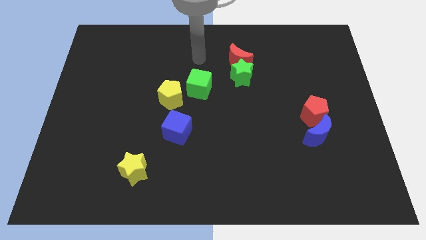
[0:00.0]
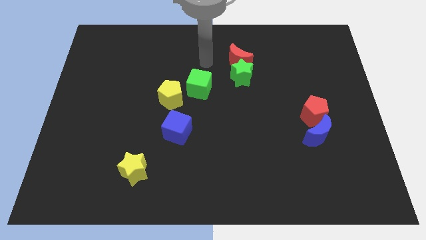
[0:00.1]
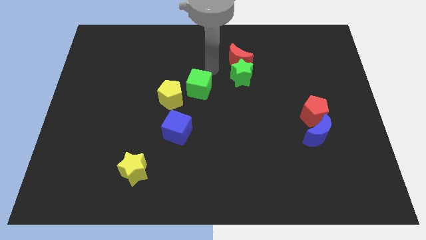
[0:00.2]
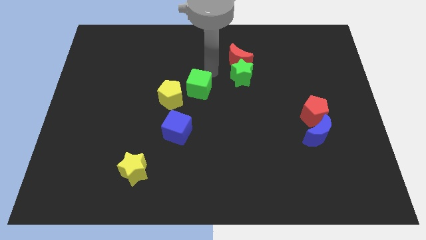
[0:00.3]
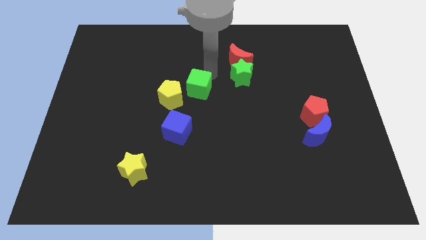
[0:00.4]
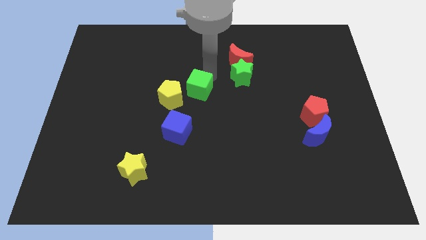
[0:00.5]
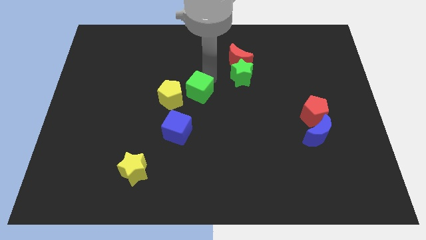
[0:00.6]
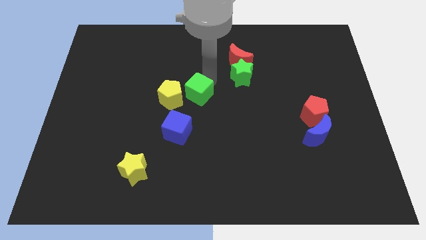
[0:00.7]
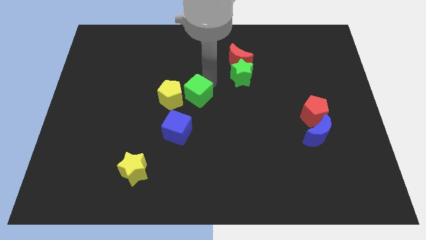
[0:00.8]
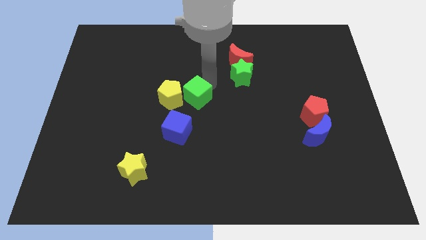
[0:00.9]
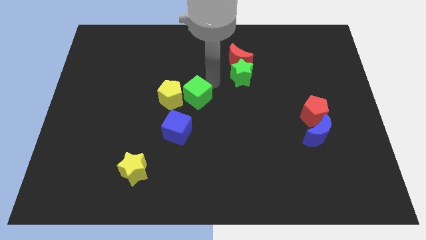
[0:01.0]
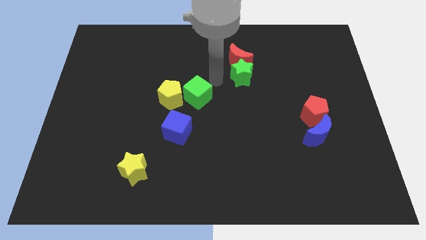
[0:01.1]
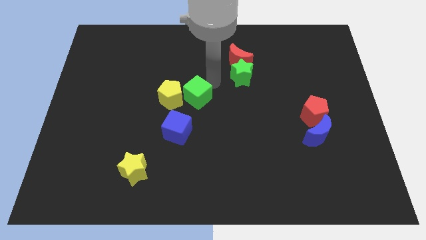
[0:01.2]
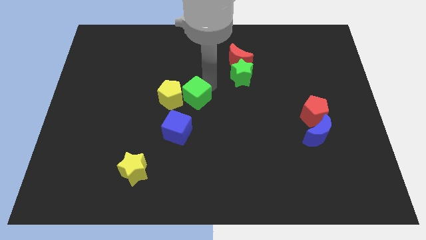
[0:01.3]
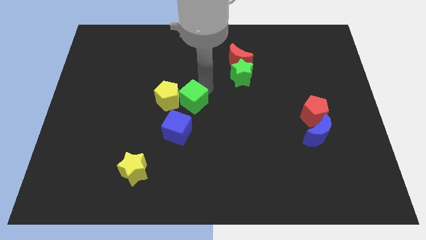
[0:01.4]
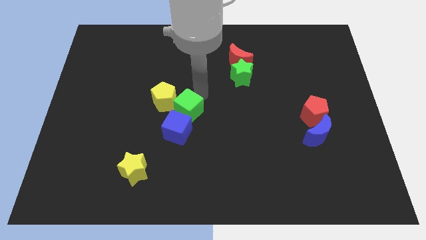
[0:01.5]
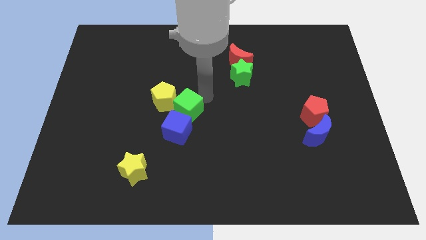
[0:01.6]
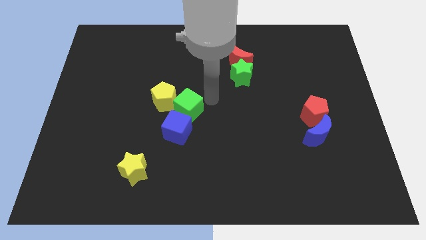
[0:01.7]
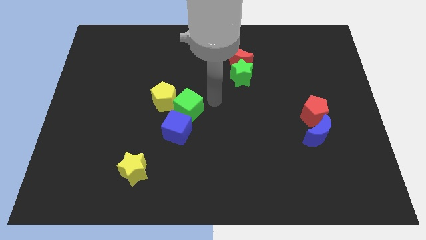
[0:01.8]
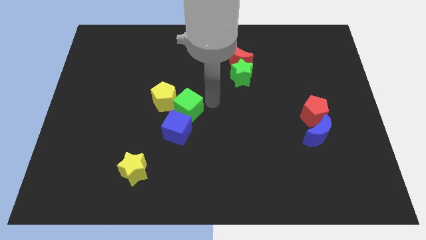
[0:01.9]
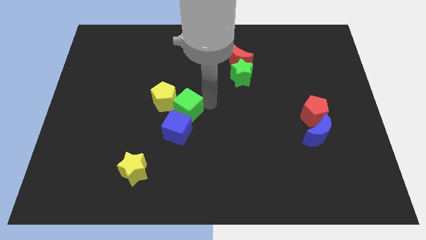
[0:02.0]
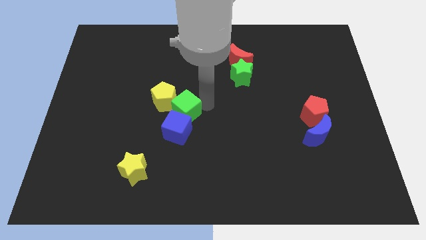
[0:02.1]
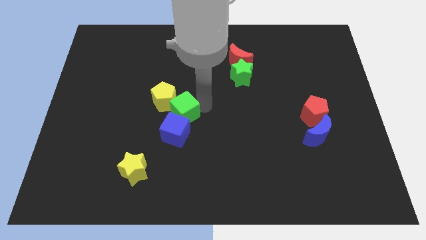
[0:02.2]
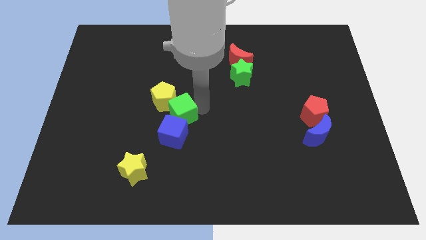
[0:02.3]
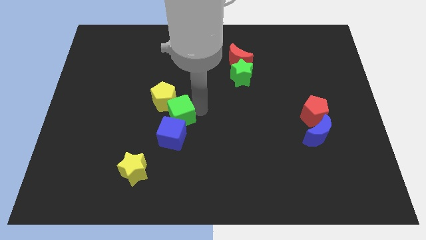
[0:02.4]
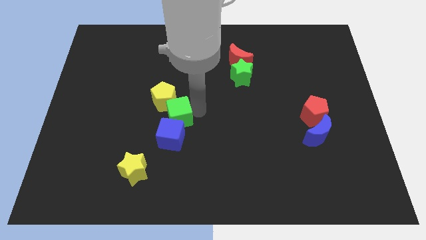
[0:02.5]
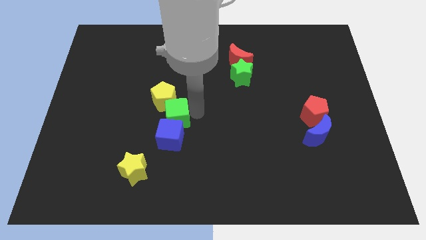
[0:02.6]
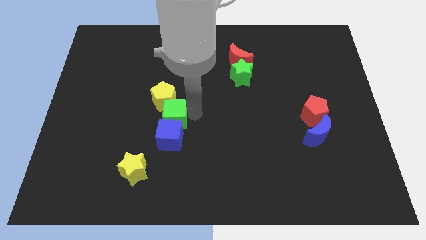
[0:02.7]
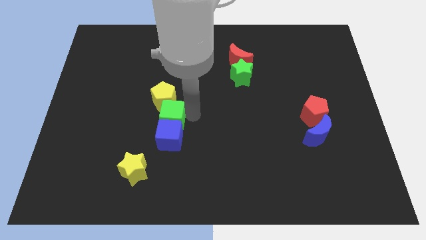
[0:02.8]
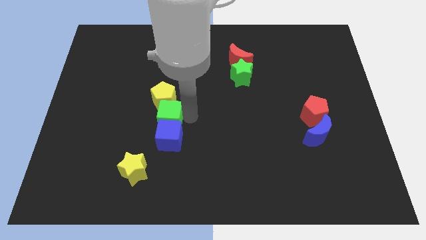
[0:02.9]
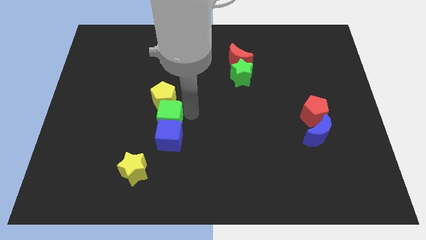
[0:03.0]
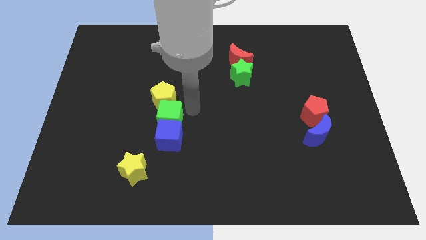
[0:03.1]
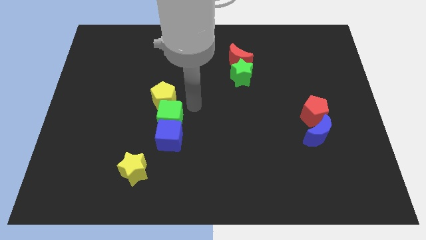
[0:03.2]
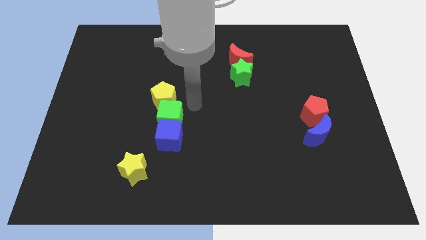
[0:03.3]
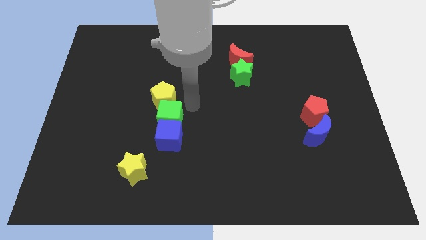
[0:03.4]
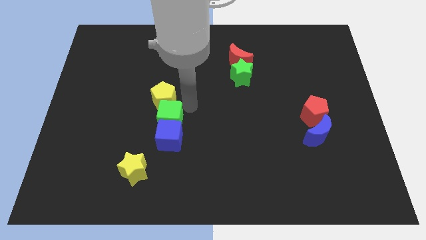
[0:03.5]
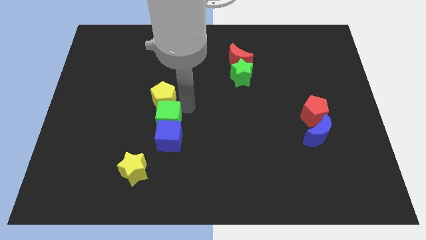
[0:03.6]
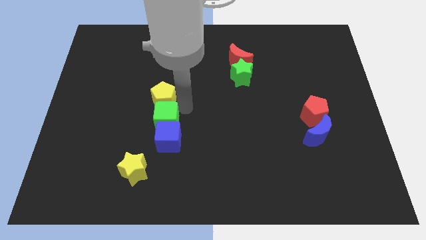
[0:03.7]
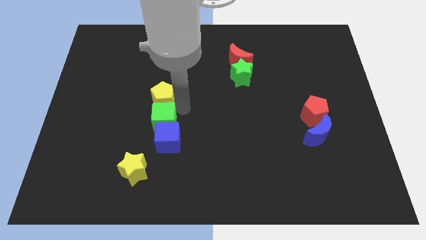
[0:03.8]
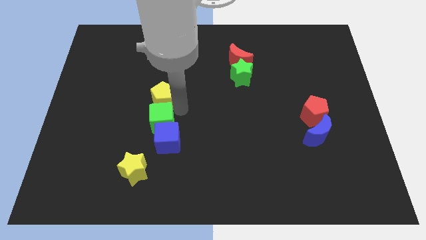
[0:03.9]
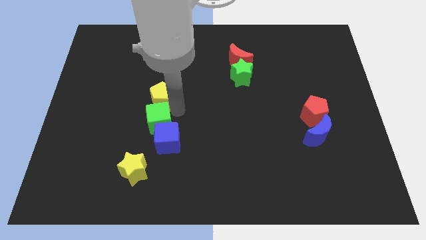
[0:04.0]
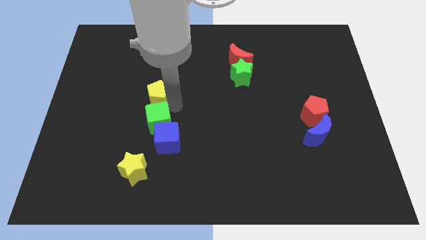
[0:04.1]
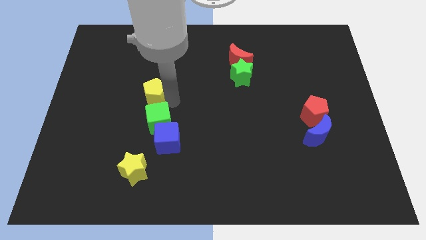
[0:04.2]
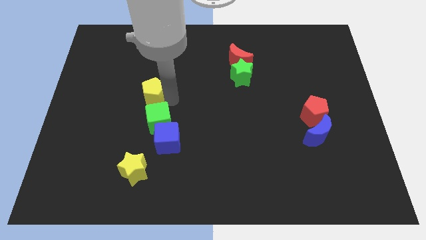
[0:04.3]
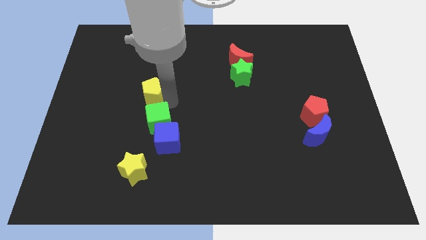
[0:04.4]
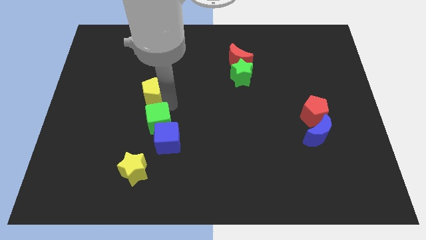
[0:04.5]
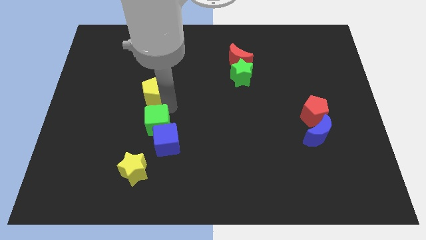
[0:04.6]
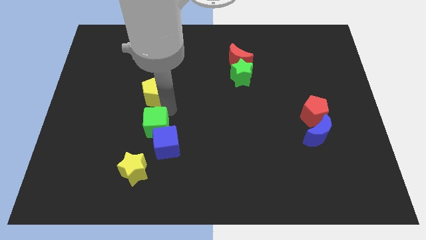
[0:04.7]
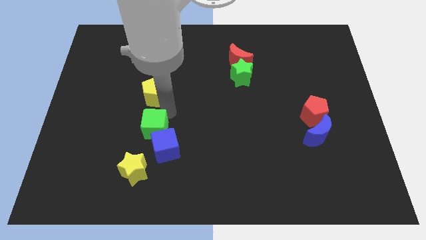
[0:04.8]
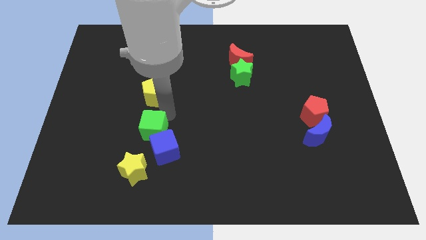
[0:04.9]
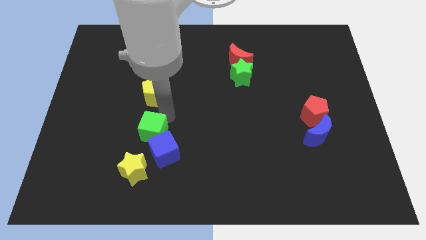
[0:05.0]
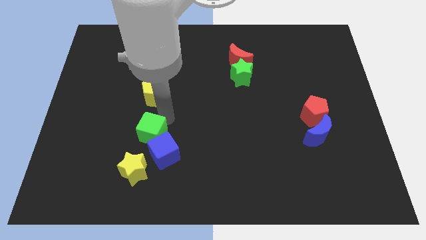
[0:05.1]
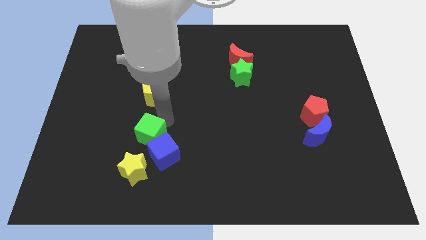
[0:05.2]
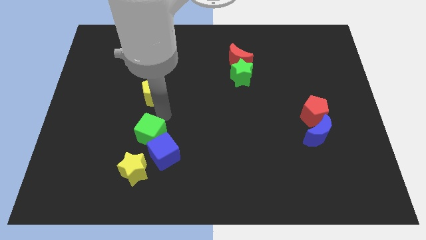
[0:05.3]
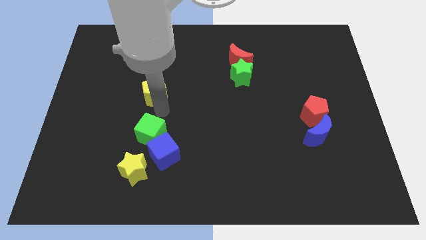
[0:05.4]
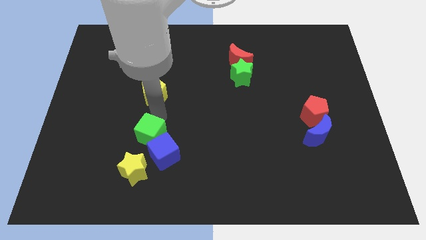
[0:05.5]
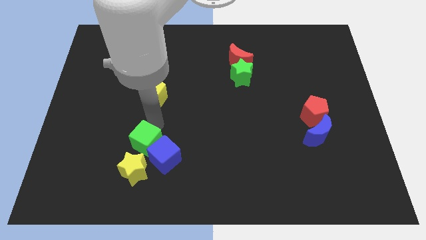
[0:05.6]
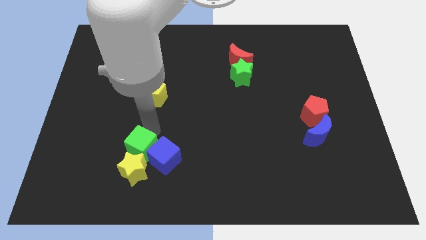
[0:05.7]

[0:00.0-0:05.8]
move the green cube to the yellow star

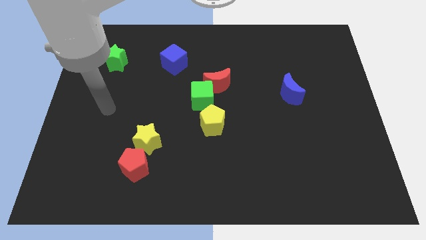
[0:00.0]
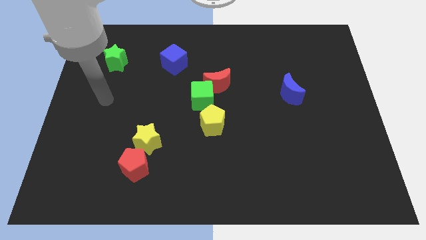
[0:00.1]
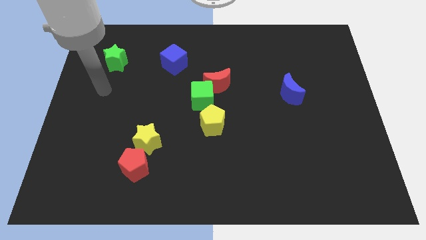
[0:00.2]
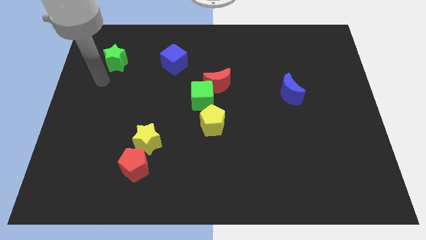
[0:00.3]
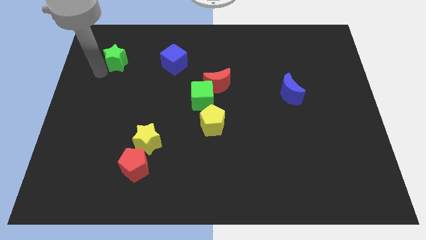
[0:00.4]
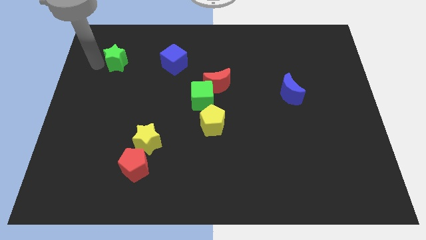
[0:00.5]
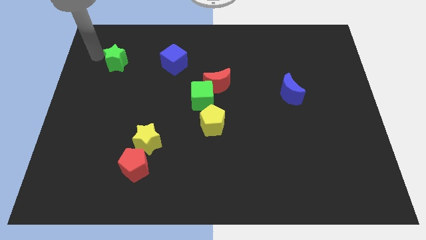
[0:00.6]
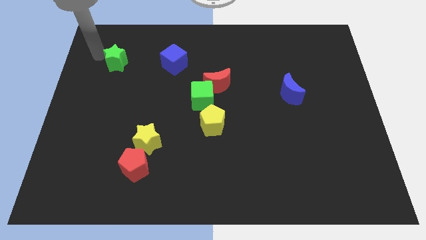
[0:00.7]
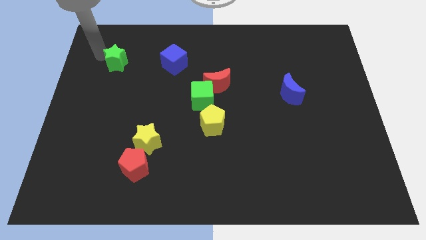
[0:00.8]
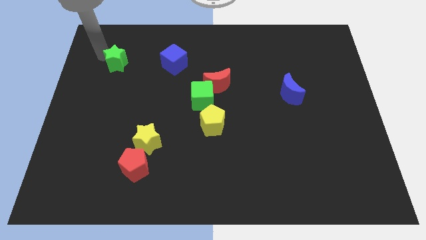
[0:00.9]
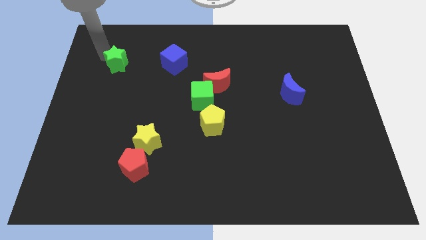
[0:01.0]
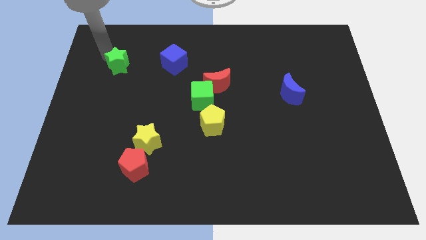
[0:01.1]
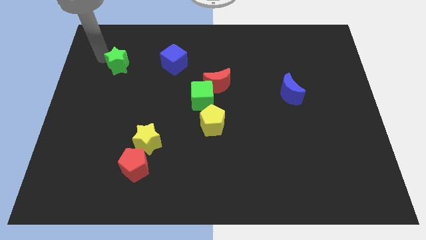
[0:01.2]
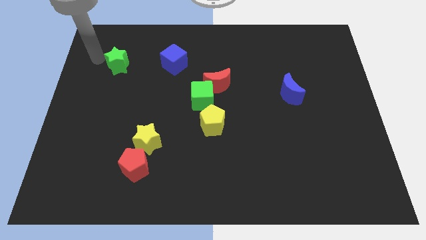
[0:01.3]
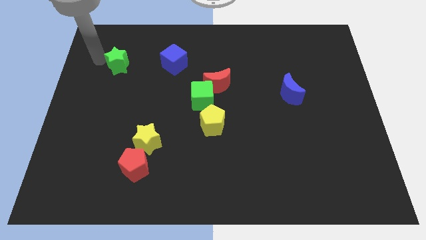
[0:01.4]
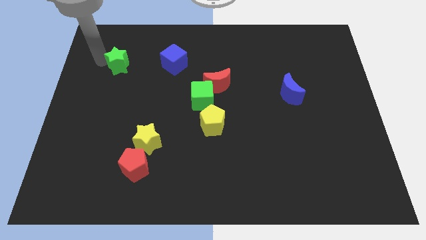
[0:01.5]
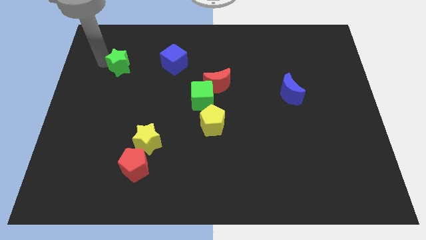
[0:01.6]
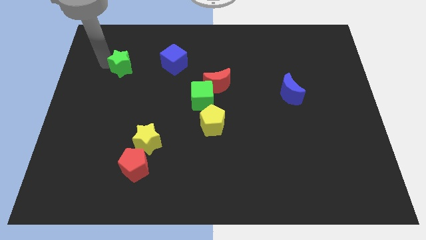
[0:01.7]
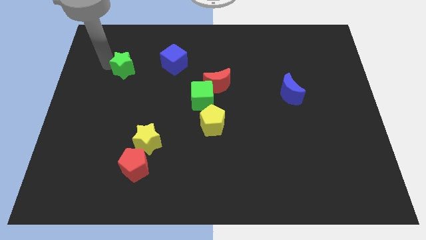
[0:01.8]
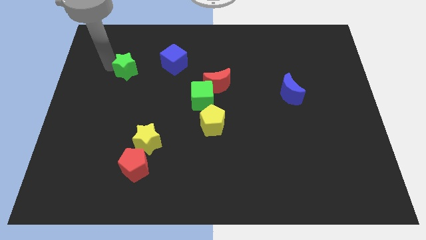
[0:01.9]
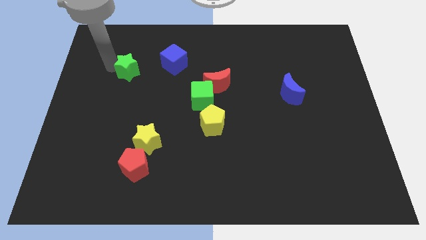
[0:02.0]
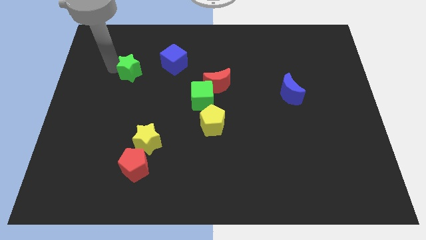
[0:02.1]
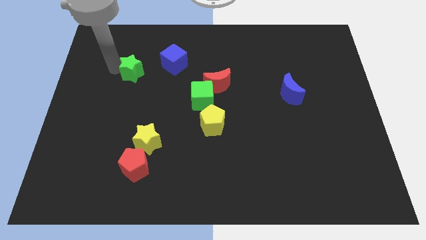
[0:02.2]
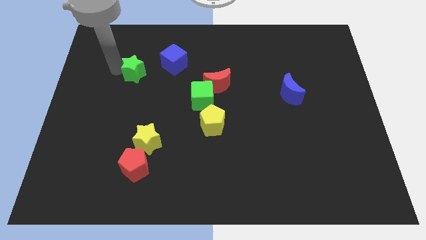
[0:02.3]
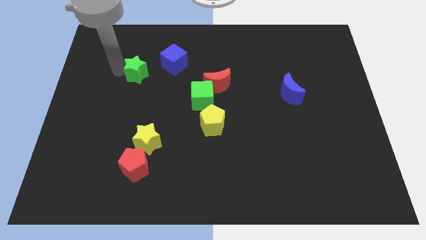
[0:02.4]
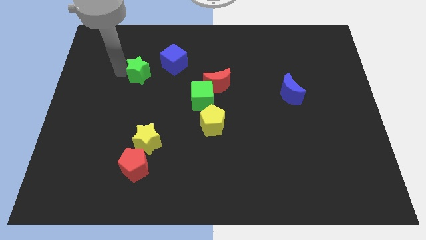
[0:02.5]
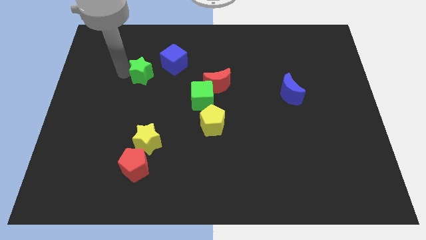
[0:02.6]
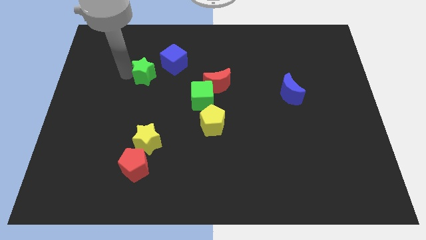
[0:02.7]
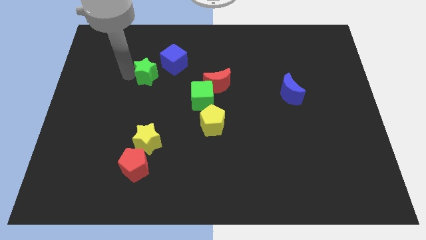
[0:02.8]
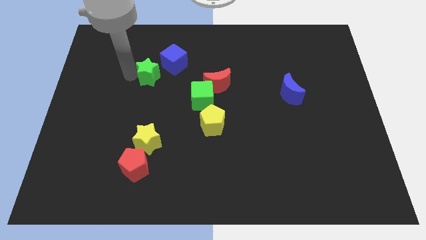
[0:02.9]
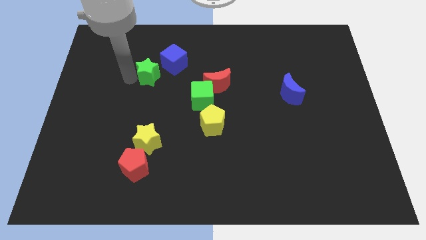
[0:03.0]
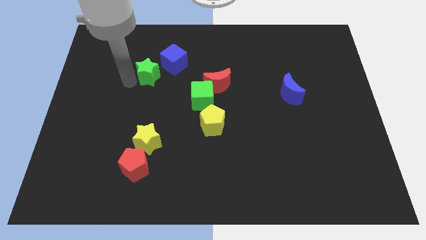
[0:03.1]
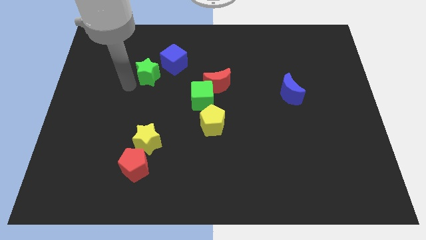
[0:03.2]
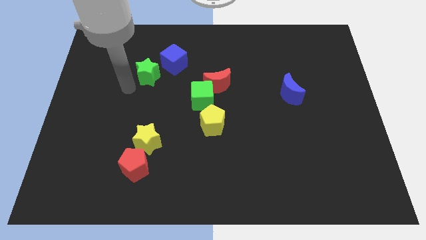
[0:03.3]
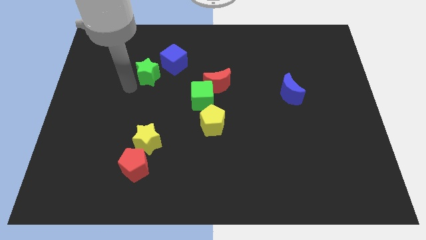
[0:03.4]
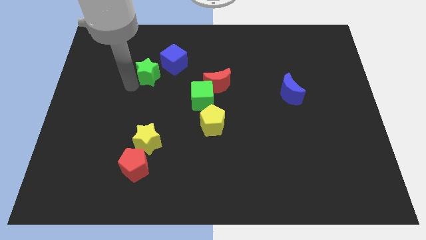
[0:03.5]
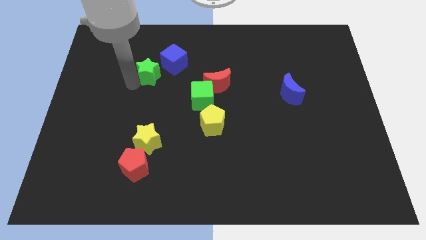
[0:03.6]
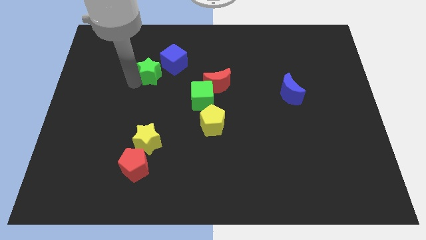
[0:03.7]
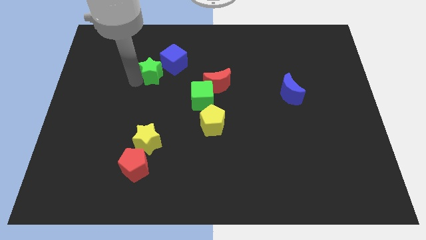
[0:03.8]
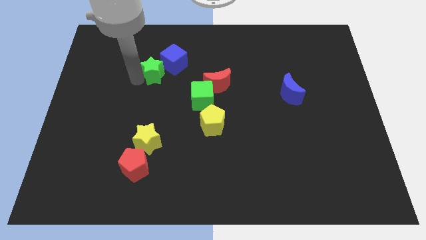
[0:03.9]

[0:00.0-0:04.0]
move the green star close to the blue cube
